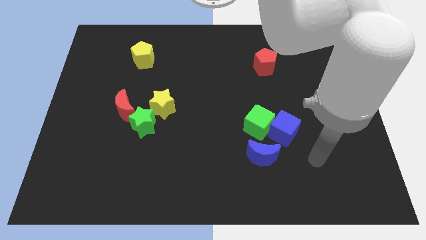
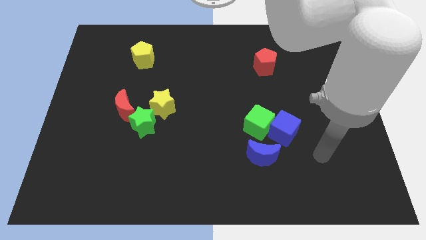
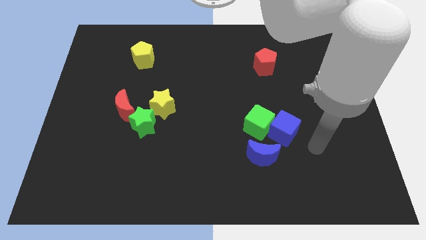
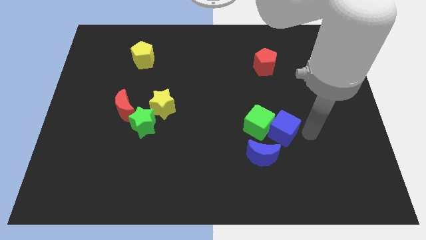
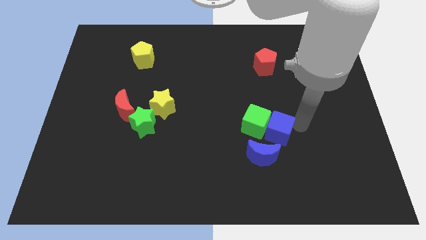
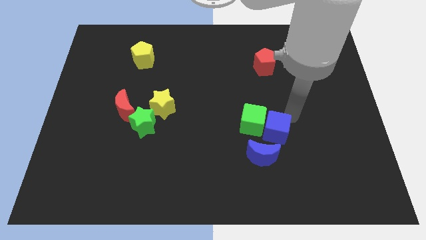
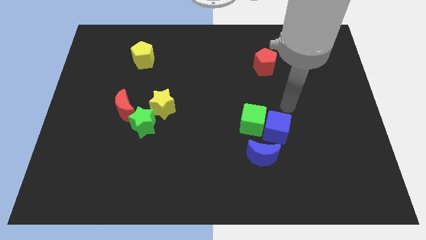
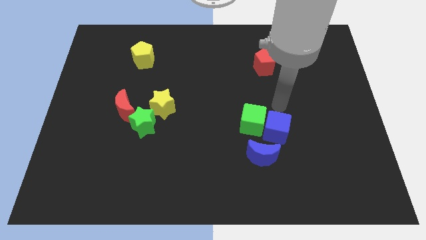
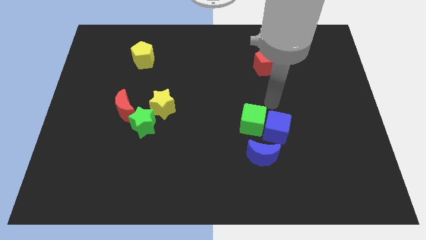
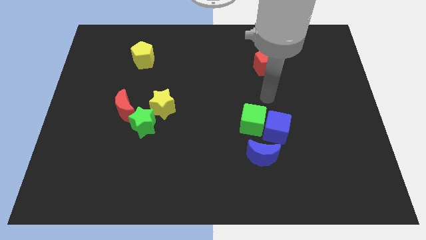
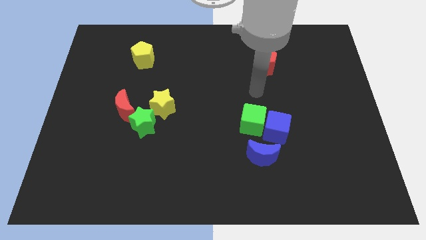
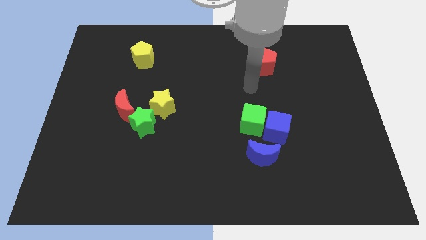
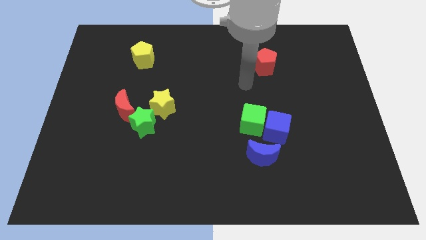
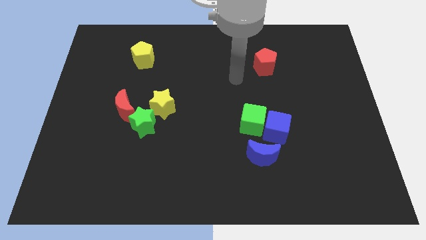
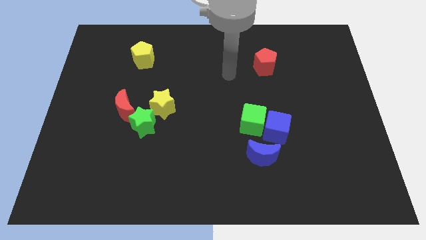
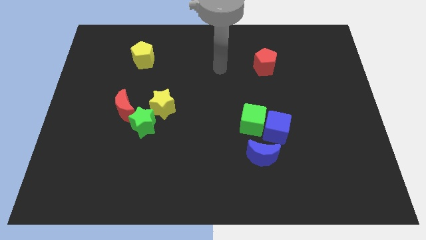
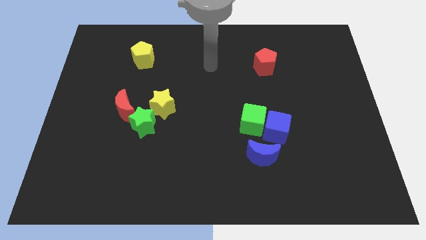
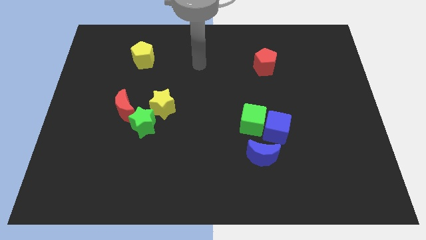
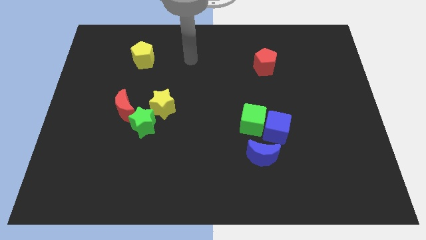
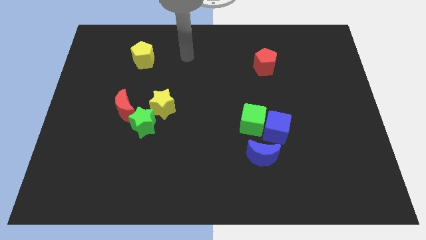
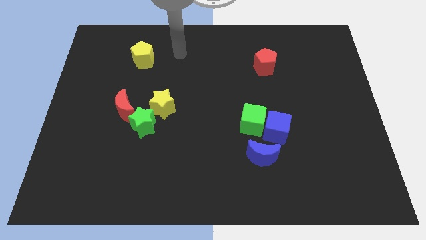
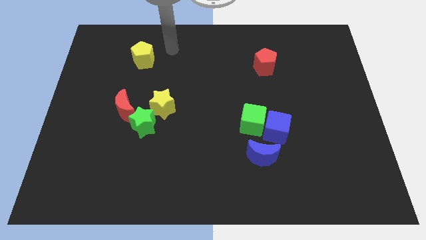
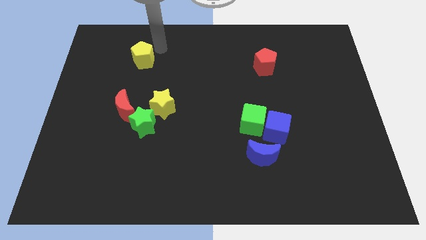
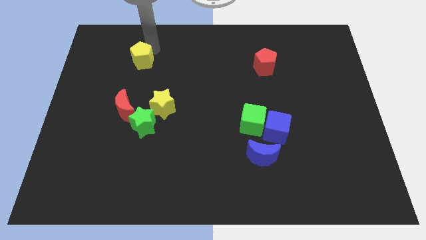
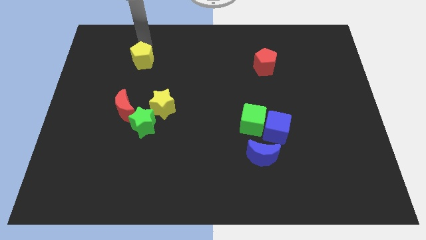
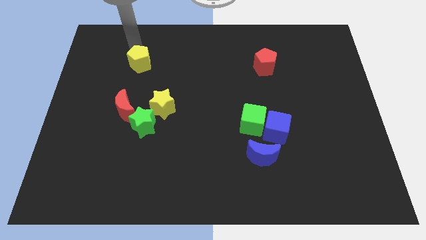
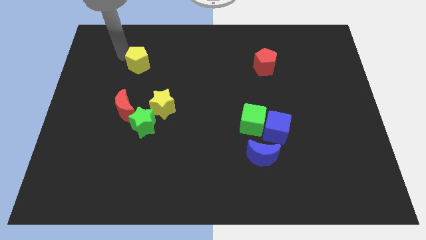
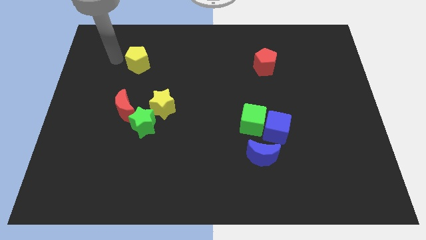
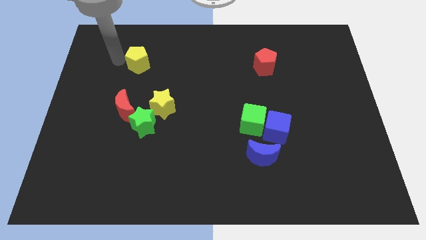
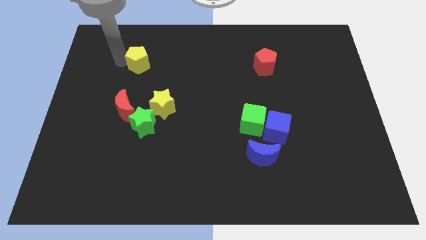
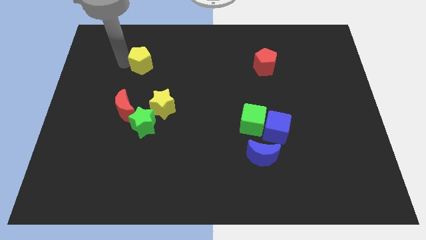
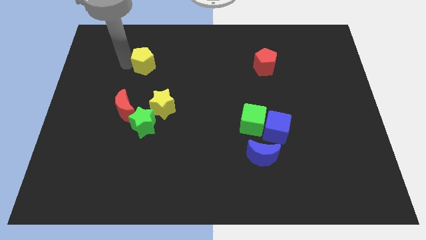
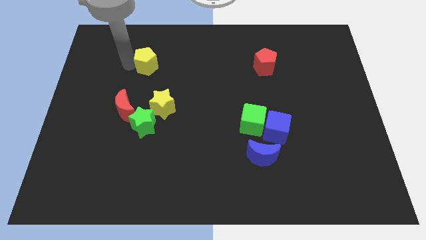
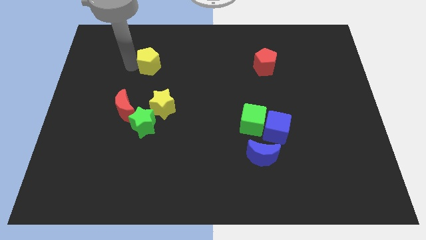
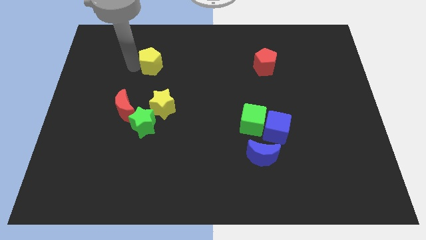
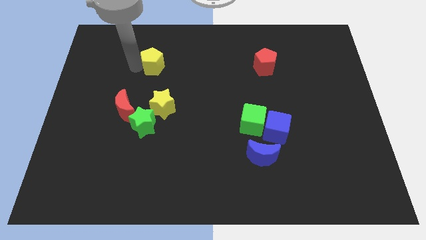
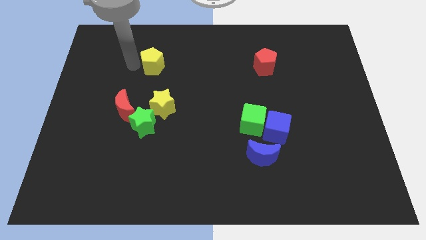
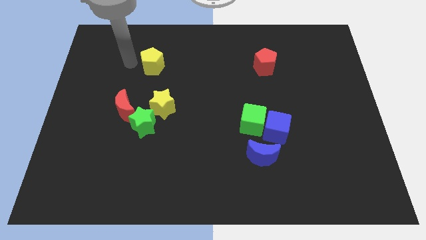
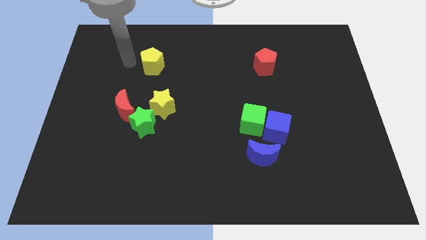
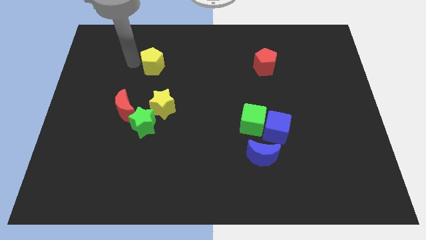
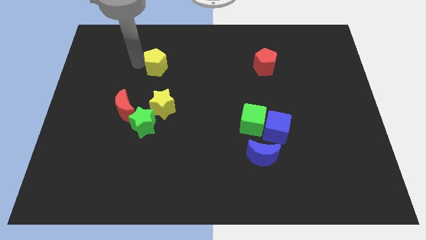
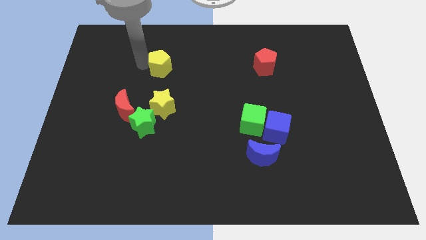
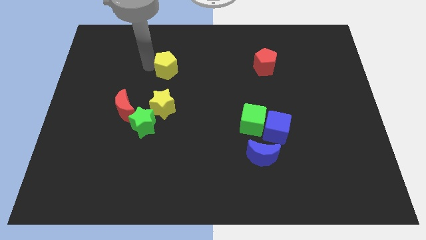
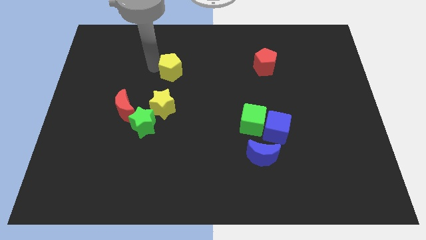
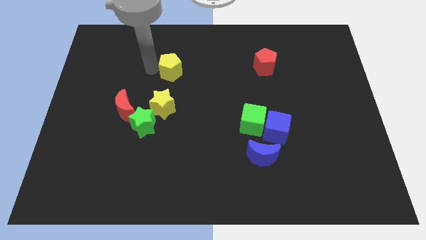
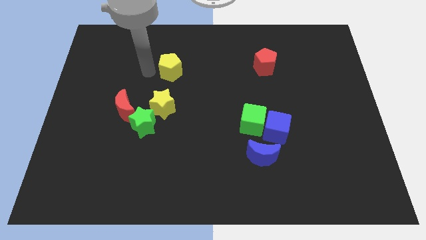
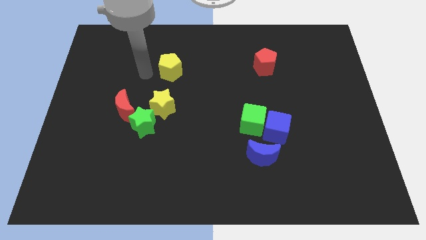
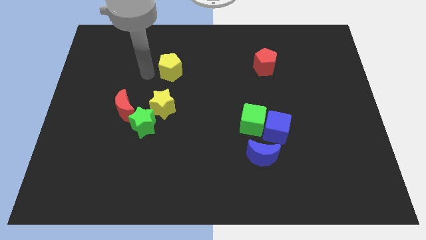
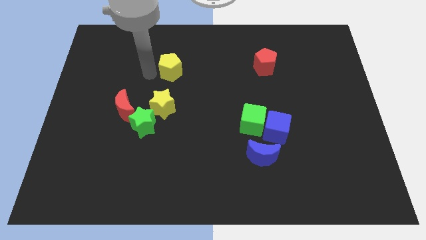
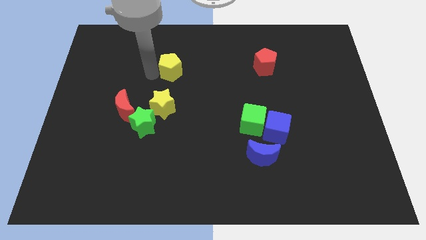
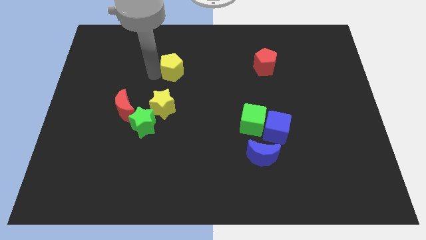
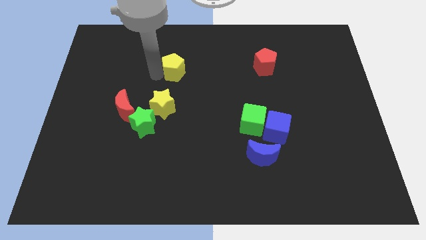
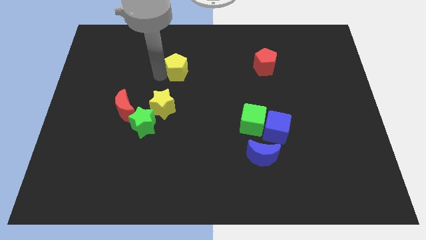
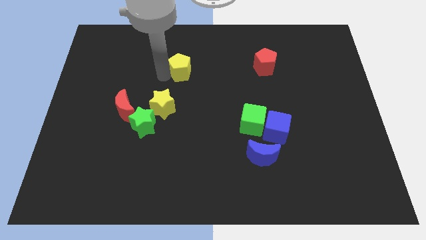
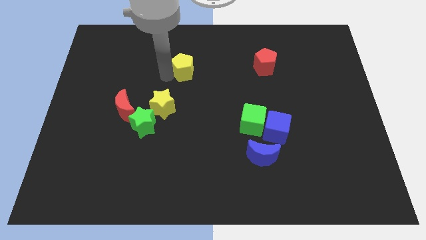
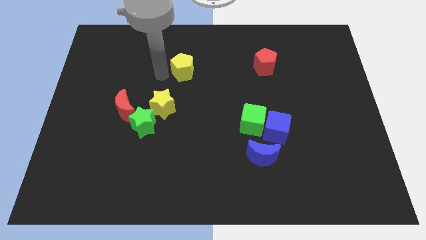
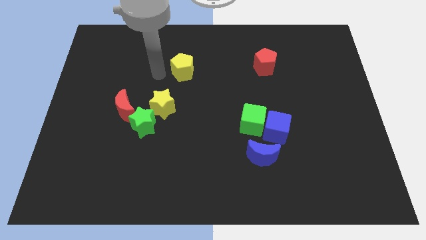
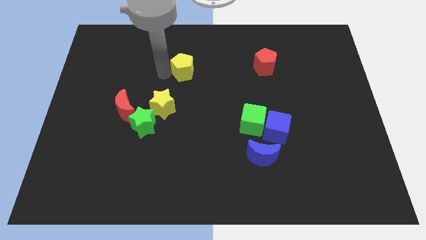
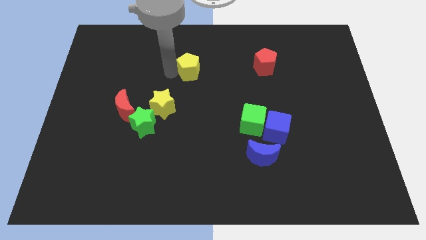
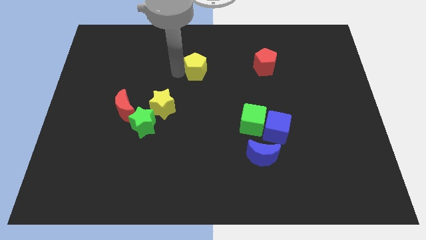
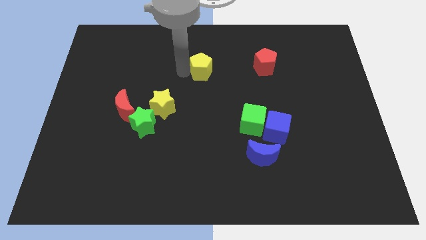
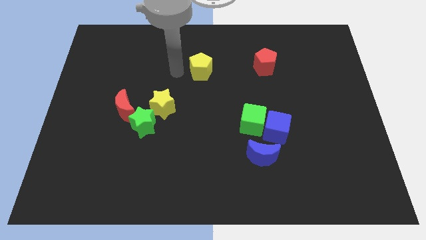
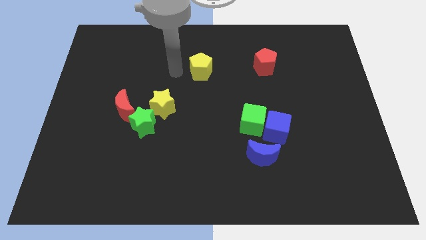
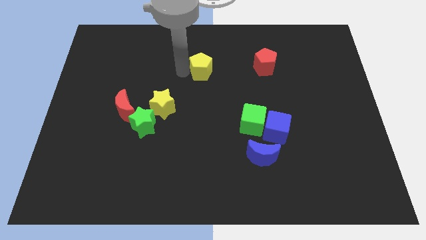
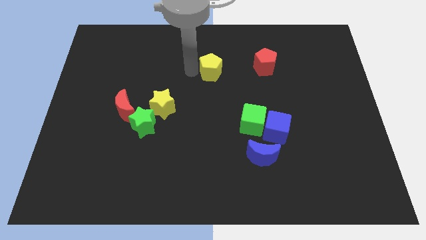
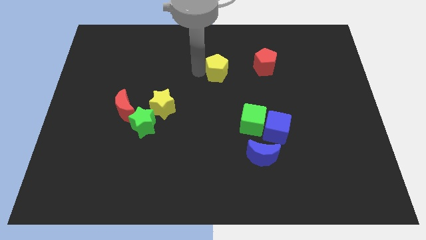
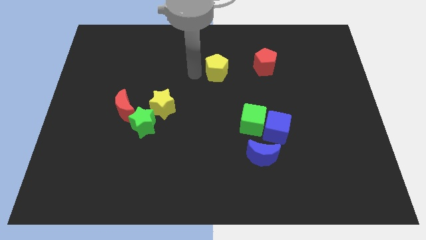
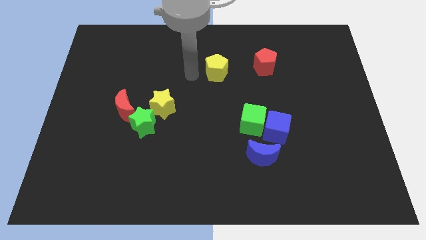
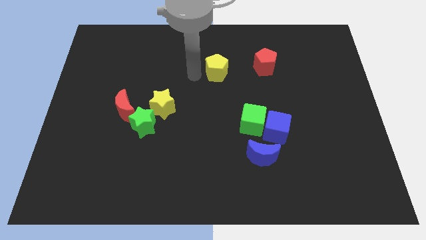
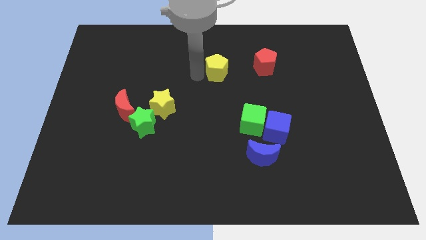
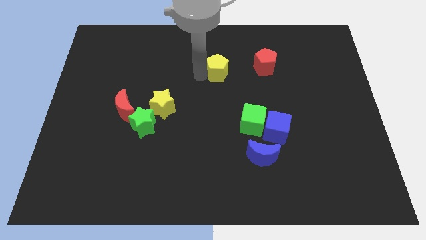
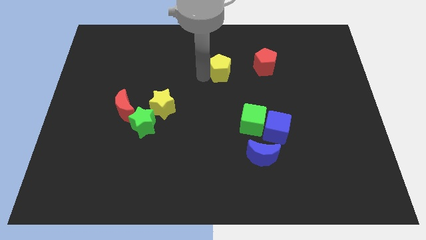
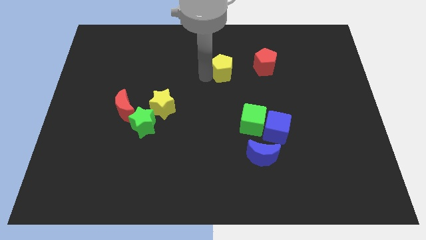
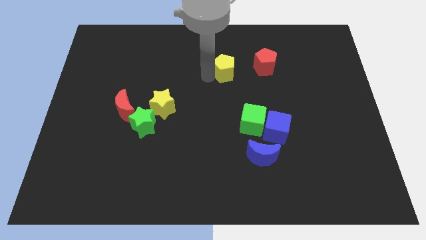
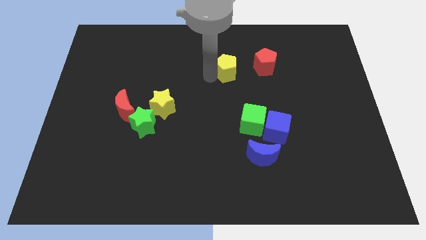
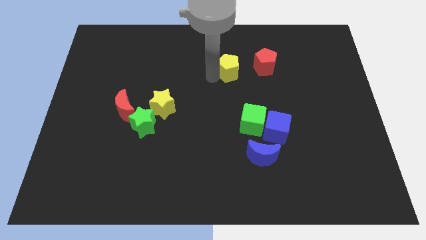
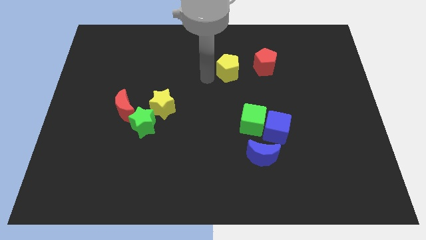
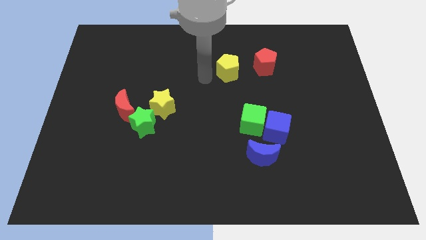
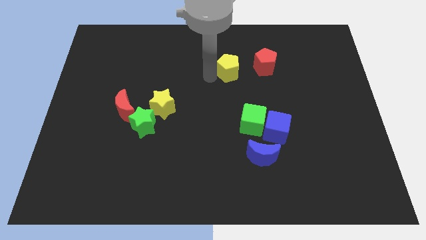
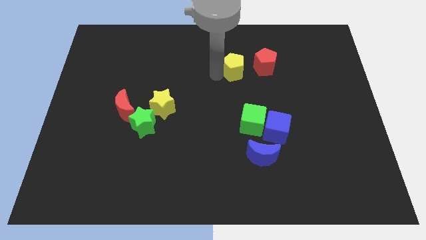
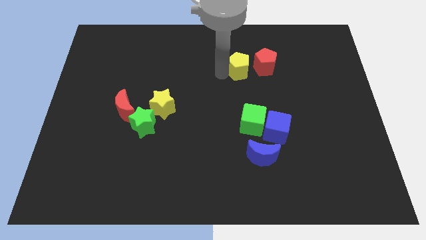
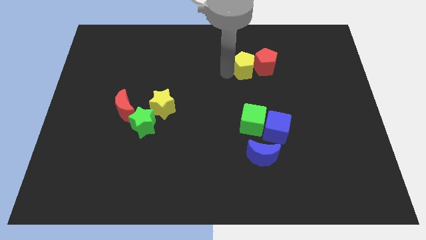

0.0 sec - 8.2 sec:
push the yellow pentagon to the red pentagon
